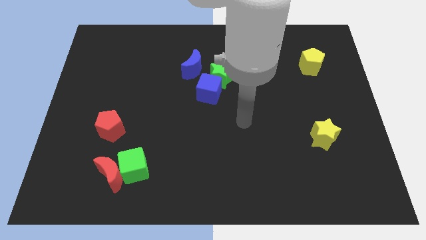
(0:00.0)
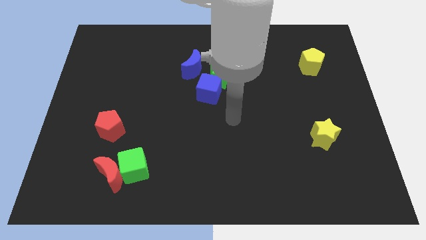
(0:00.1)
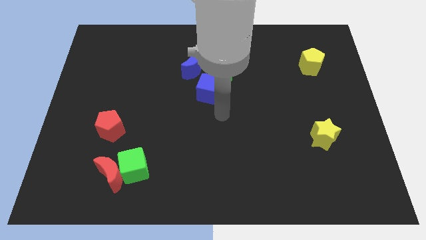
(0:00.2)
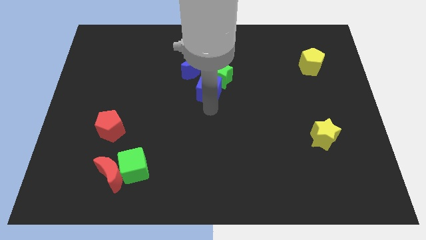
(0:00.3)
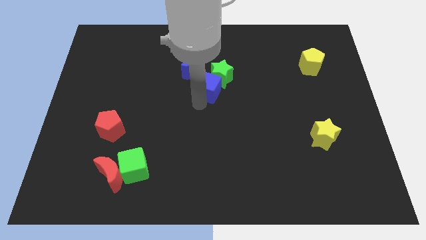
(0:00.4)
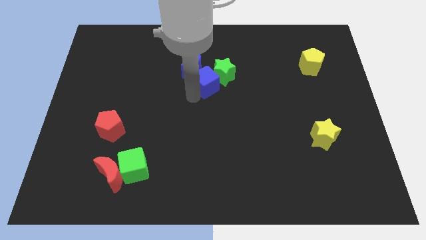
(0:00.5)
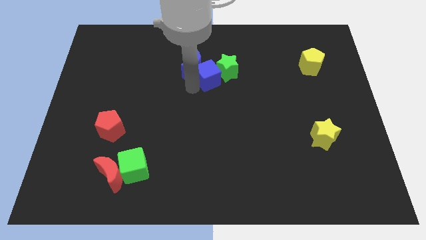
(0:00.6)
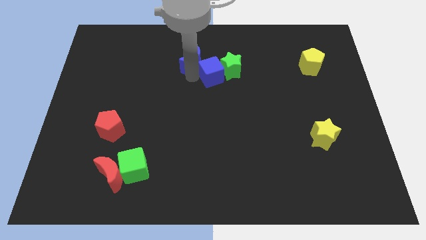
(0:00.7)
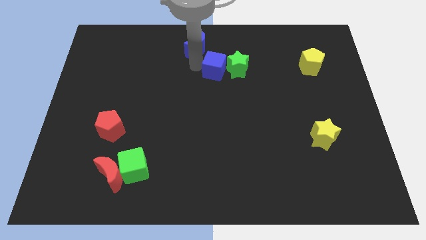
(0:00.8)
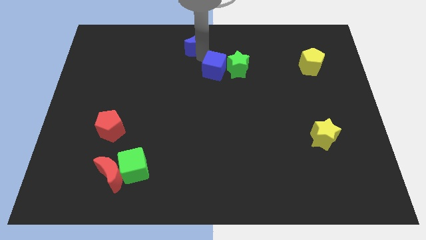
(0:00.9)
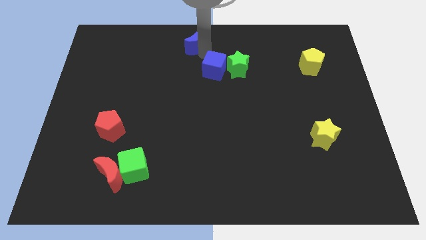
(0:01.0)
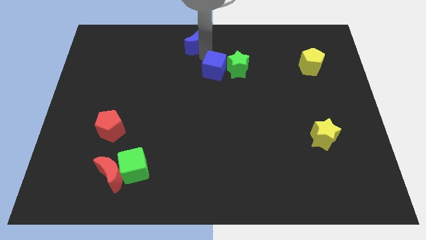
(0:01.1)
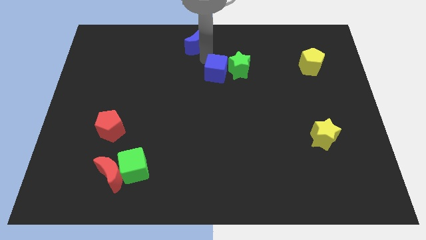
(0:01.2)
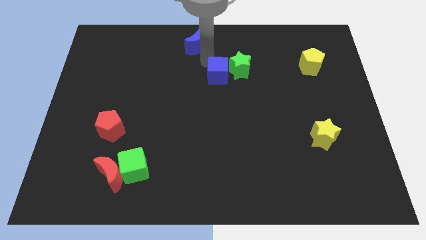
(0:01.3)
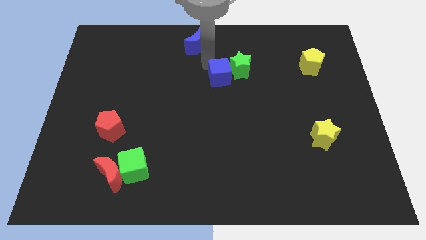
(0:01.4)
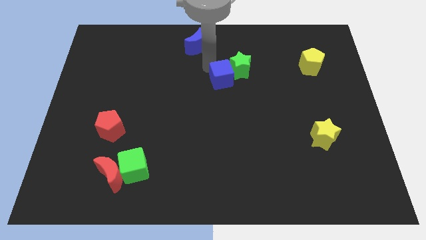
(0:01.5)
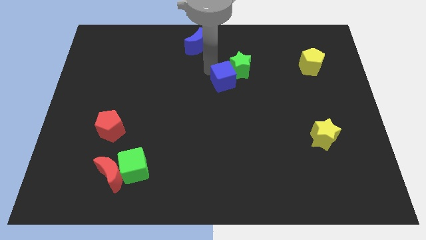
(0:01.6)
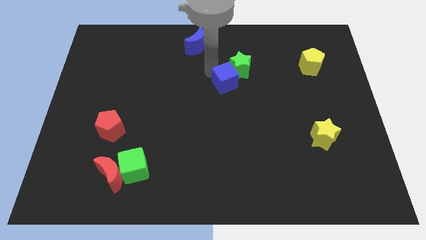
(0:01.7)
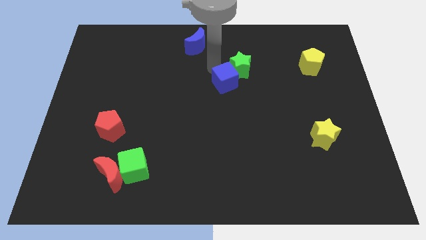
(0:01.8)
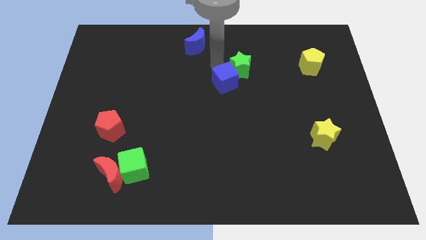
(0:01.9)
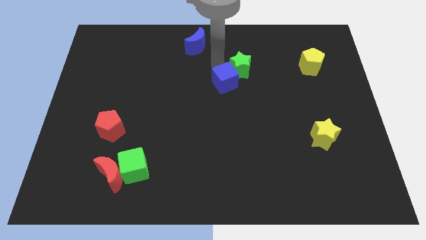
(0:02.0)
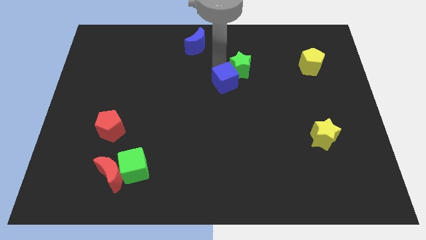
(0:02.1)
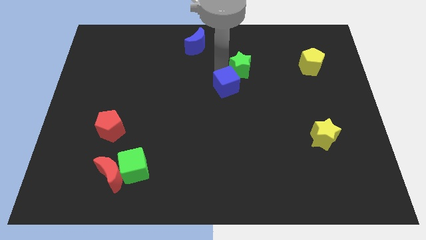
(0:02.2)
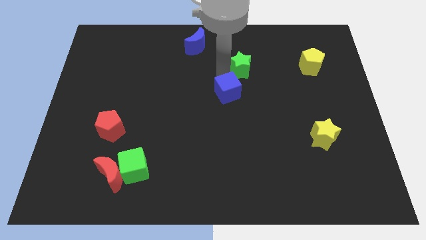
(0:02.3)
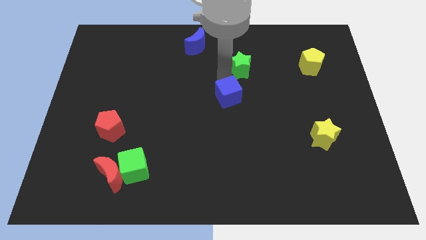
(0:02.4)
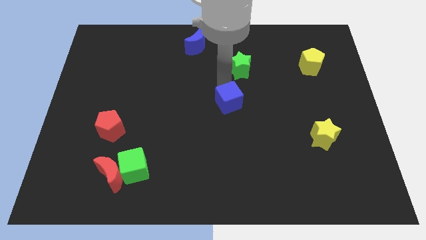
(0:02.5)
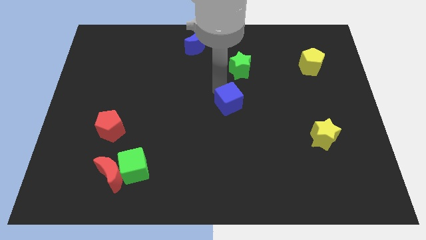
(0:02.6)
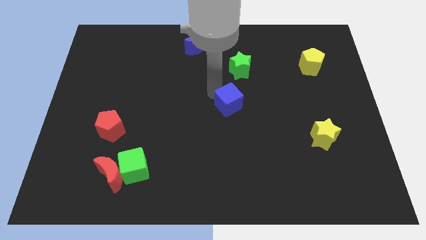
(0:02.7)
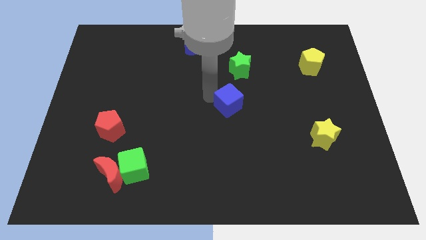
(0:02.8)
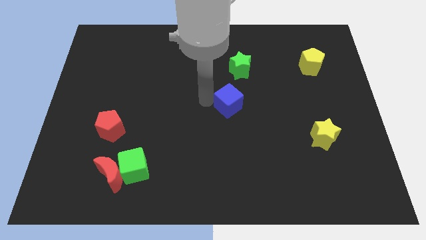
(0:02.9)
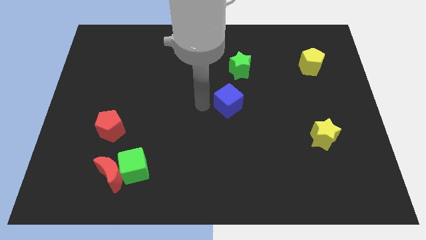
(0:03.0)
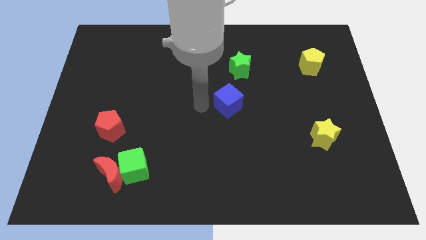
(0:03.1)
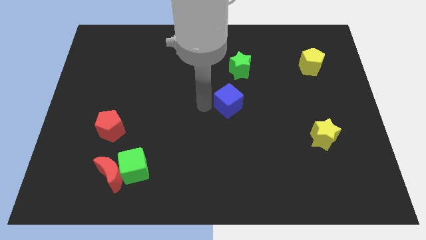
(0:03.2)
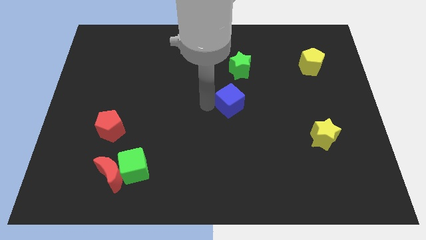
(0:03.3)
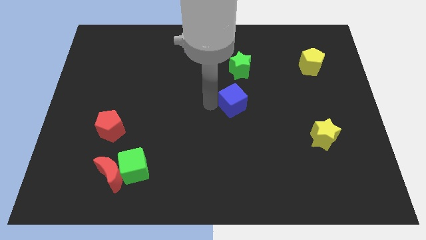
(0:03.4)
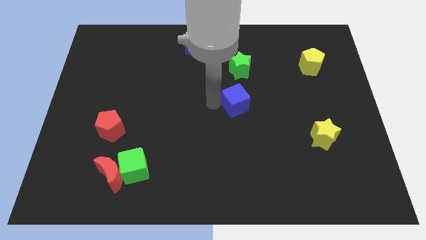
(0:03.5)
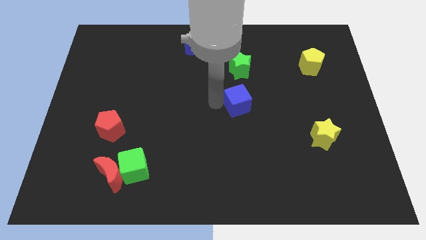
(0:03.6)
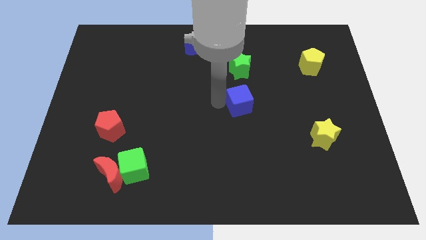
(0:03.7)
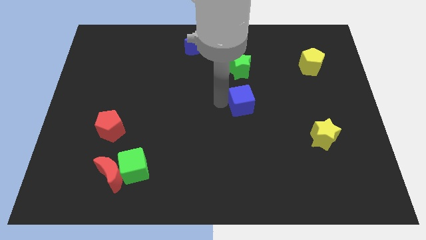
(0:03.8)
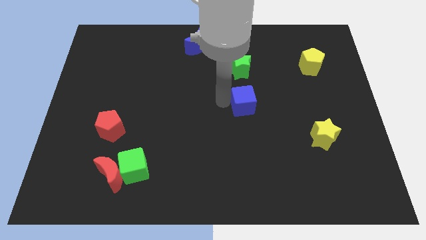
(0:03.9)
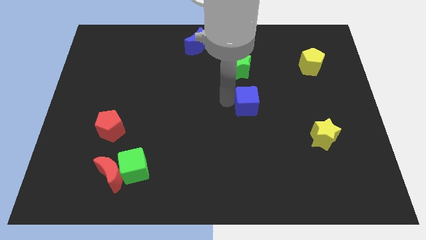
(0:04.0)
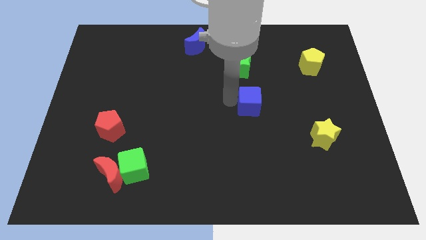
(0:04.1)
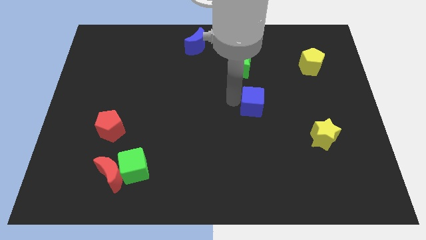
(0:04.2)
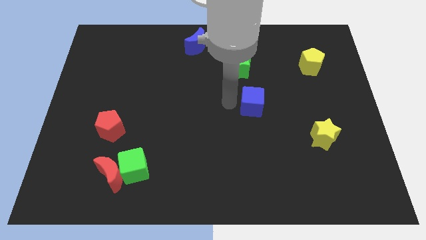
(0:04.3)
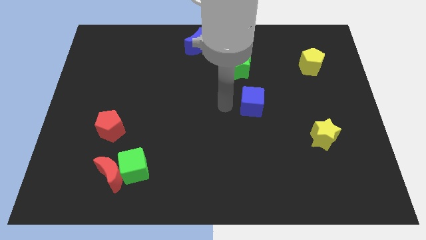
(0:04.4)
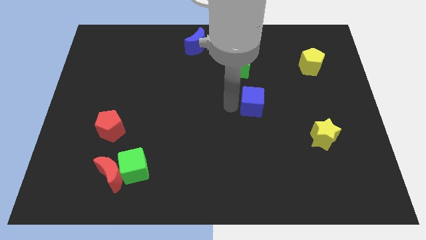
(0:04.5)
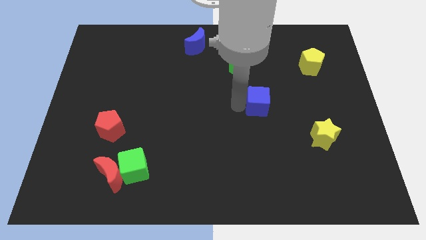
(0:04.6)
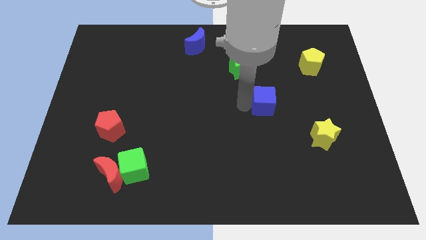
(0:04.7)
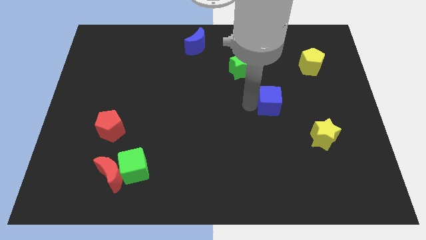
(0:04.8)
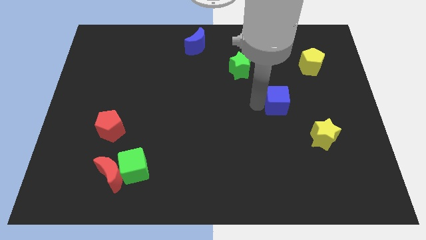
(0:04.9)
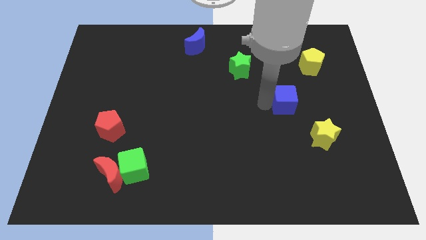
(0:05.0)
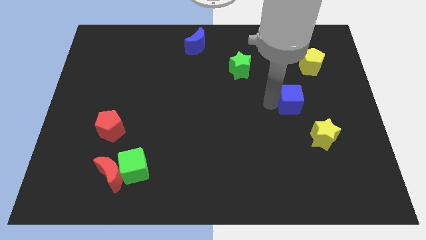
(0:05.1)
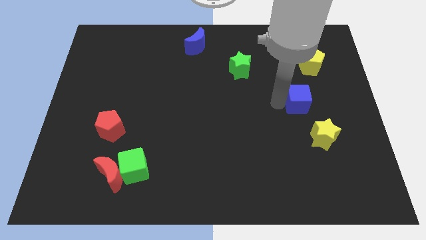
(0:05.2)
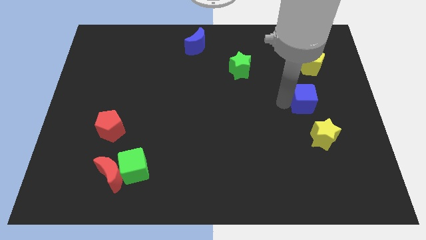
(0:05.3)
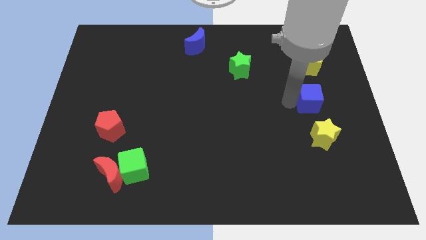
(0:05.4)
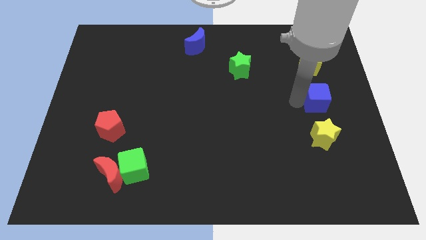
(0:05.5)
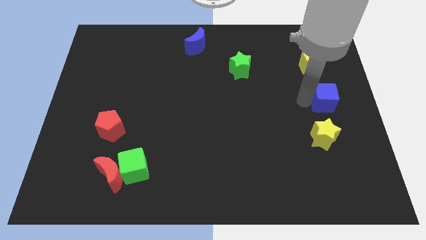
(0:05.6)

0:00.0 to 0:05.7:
put the blue cube to the right side of the board
